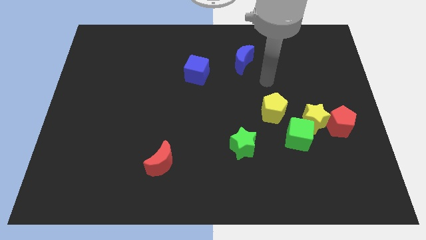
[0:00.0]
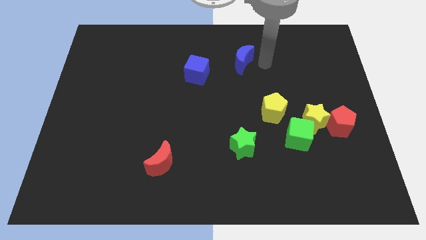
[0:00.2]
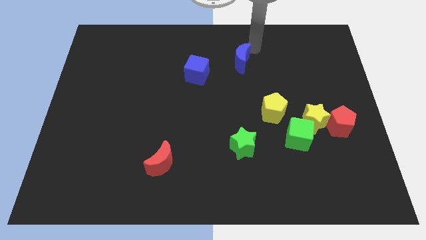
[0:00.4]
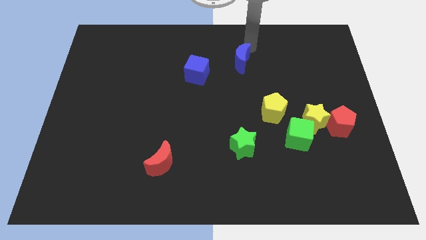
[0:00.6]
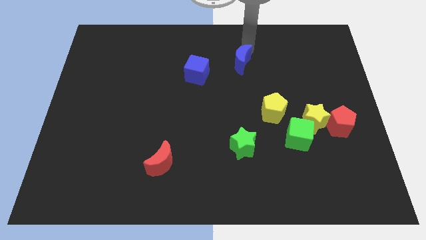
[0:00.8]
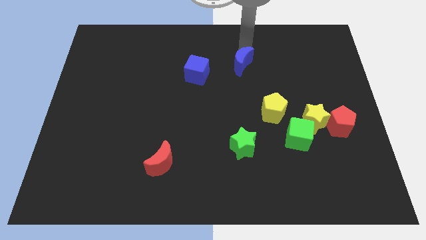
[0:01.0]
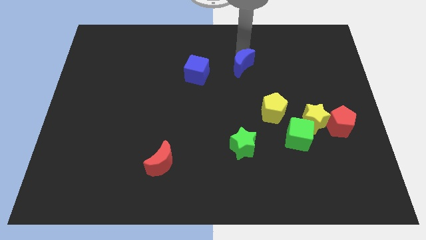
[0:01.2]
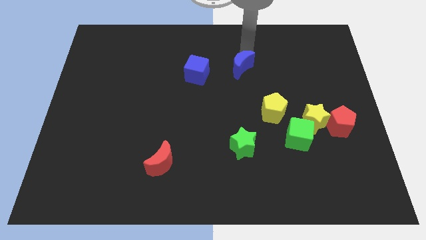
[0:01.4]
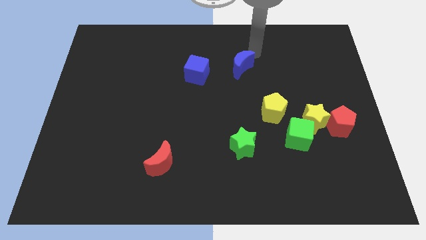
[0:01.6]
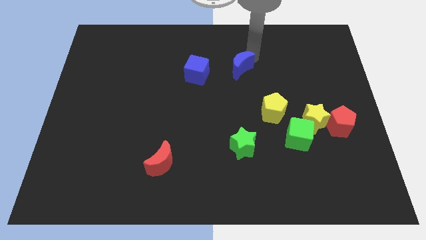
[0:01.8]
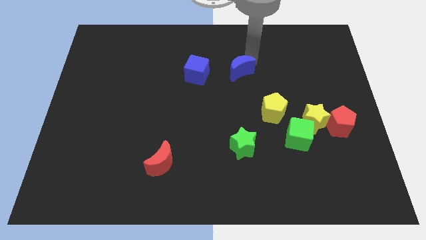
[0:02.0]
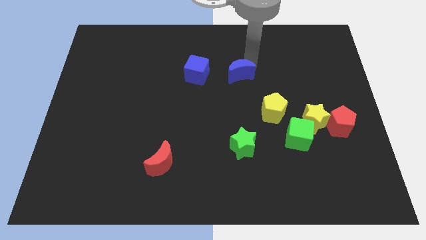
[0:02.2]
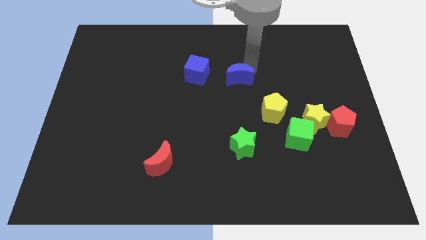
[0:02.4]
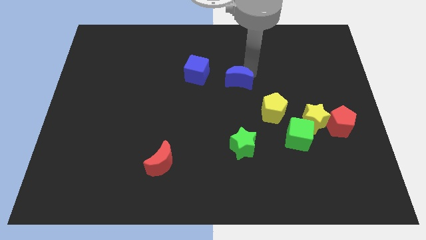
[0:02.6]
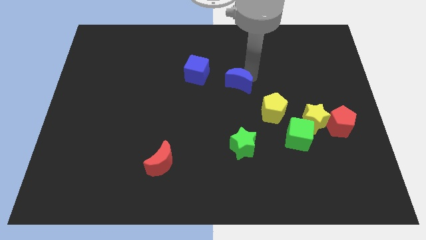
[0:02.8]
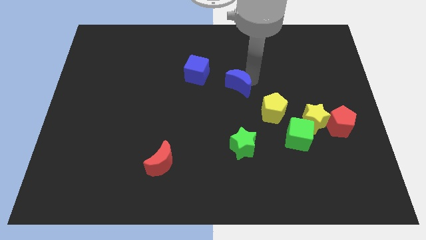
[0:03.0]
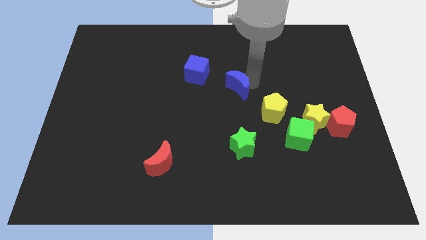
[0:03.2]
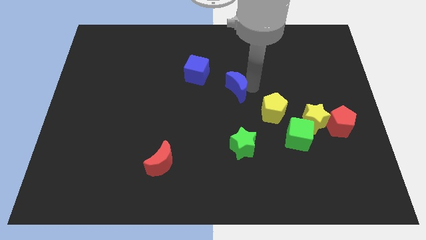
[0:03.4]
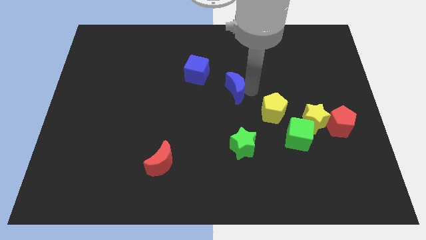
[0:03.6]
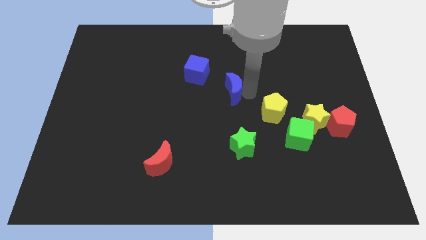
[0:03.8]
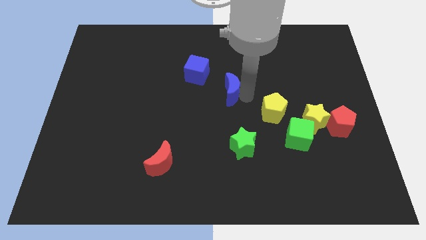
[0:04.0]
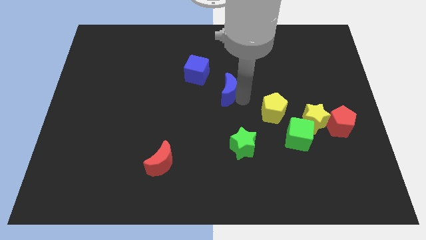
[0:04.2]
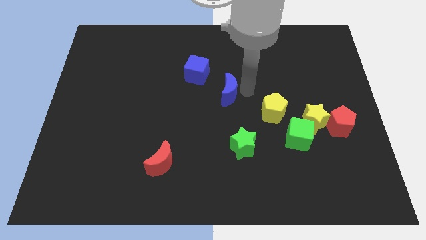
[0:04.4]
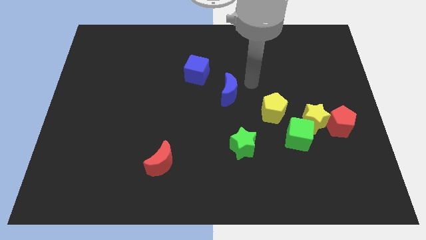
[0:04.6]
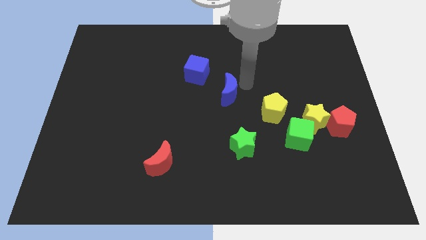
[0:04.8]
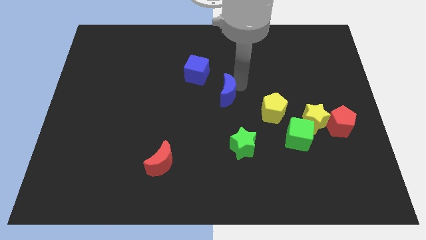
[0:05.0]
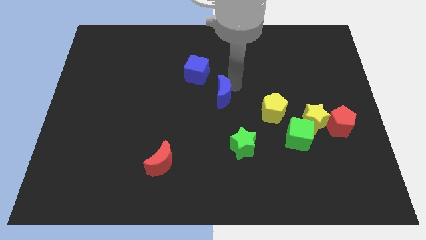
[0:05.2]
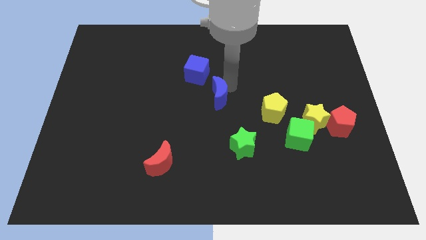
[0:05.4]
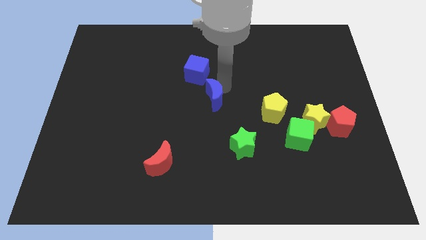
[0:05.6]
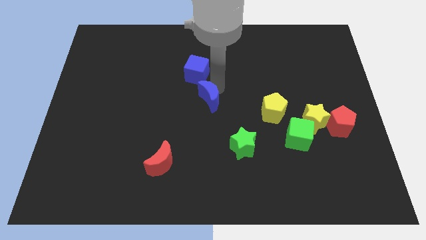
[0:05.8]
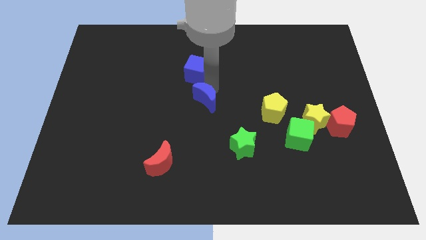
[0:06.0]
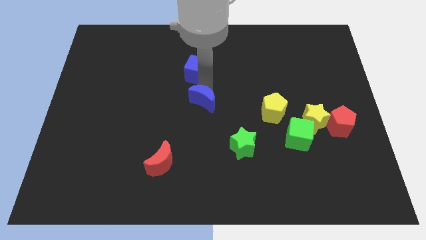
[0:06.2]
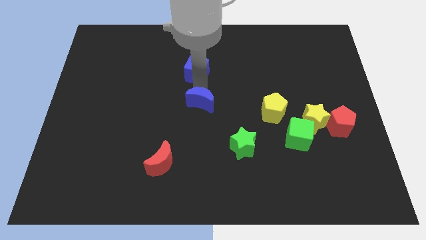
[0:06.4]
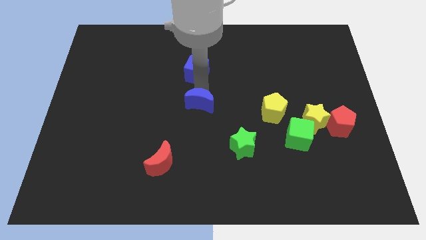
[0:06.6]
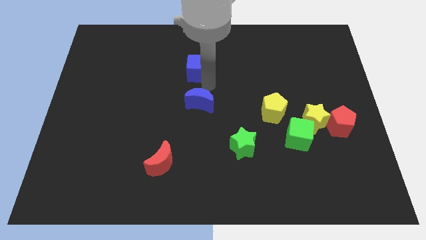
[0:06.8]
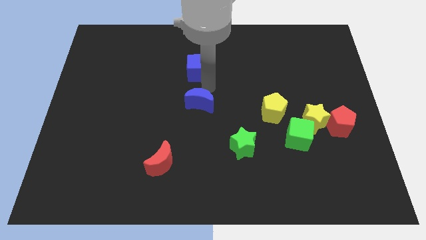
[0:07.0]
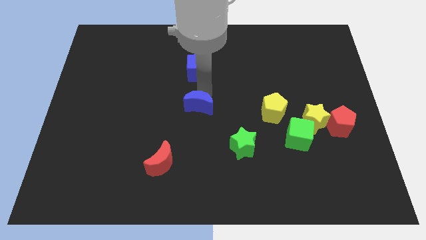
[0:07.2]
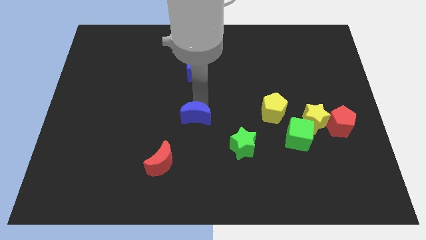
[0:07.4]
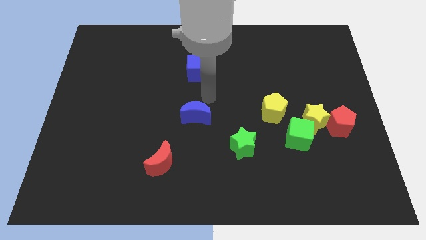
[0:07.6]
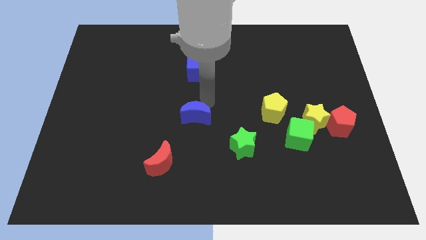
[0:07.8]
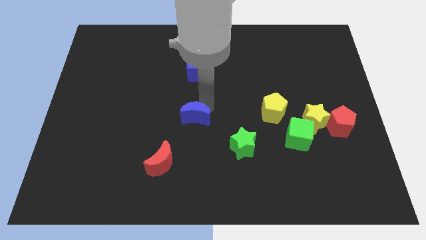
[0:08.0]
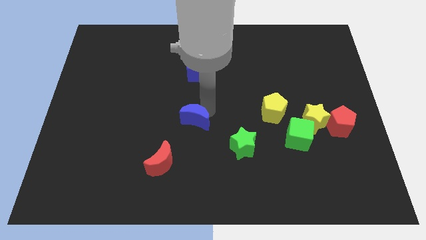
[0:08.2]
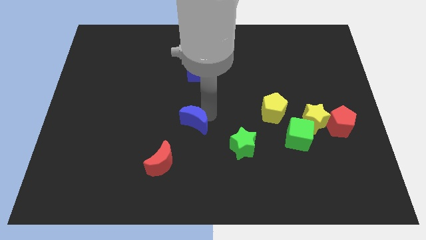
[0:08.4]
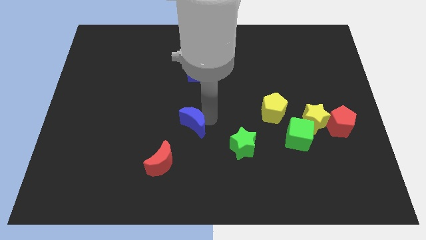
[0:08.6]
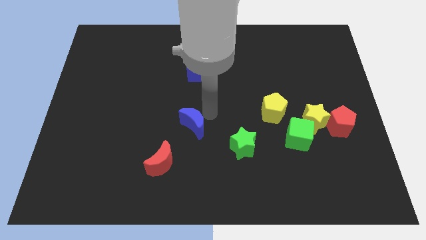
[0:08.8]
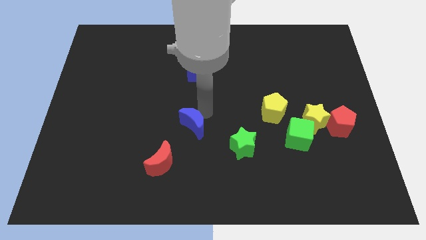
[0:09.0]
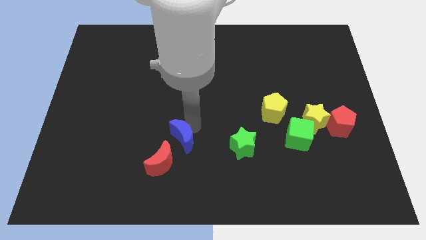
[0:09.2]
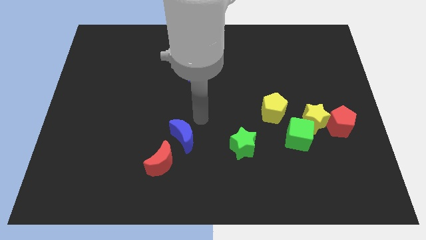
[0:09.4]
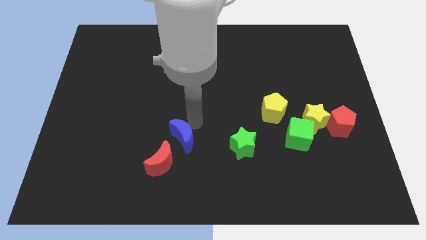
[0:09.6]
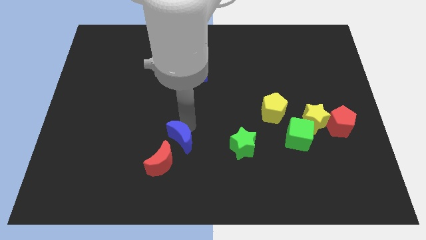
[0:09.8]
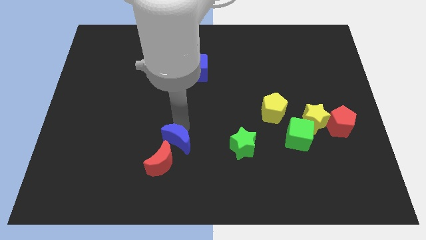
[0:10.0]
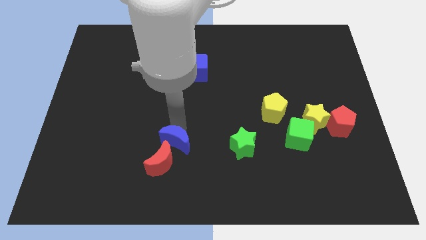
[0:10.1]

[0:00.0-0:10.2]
push the blue moon close to the red moon

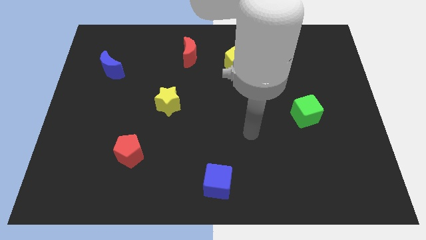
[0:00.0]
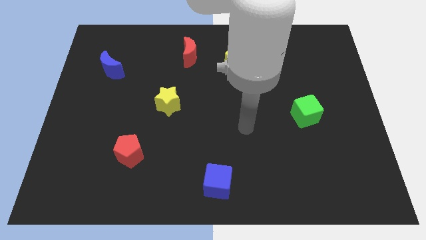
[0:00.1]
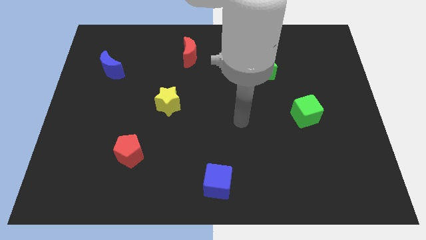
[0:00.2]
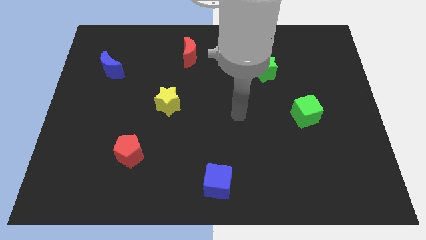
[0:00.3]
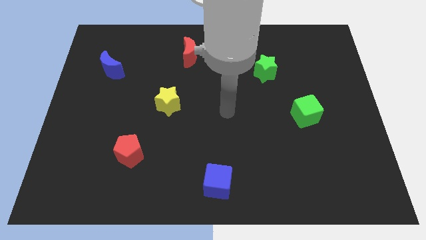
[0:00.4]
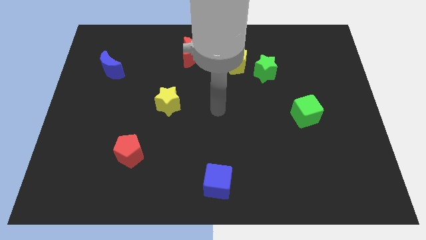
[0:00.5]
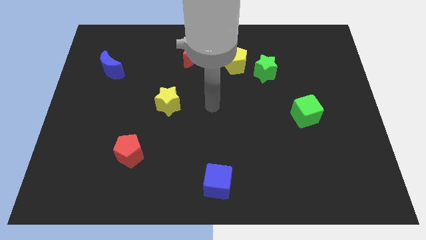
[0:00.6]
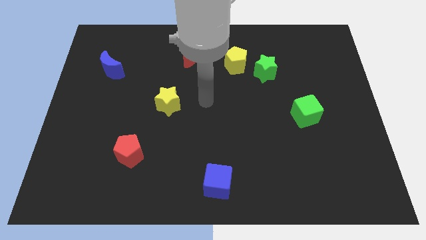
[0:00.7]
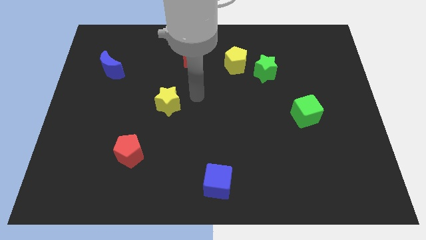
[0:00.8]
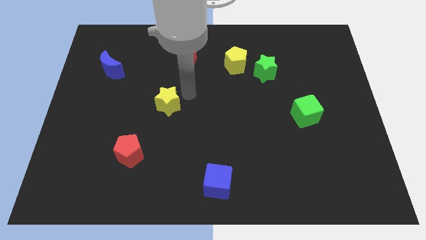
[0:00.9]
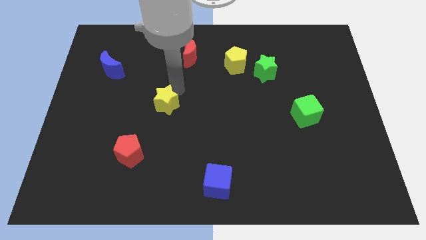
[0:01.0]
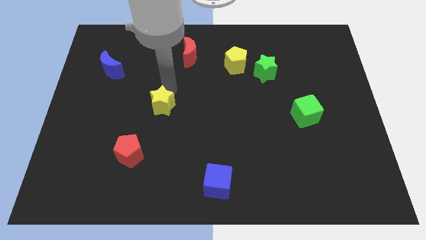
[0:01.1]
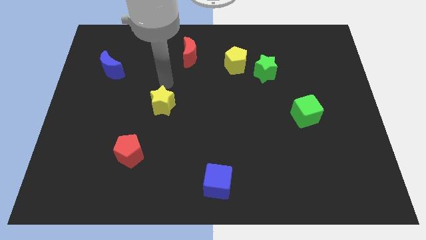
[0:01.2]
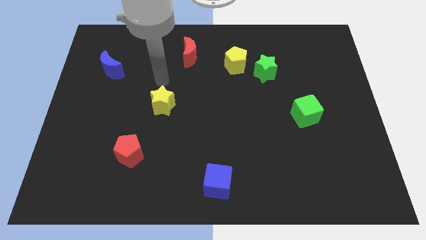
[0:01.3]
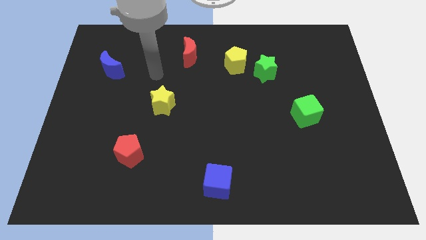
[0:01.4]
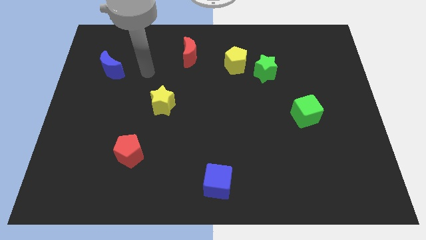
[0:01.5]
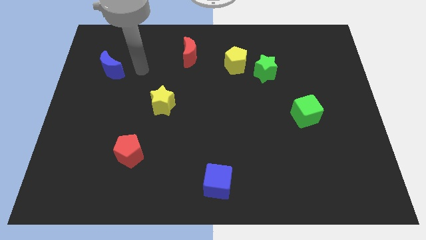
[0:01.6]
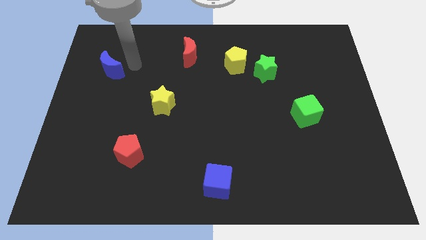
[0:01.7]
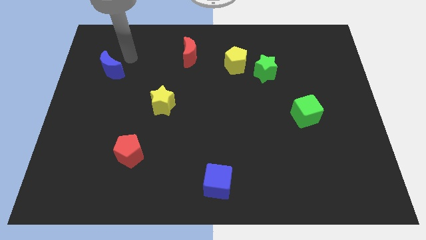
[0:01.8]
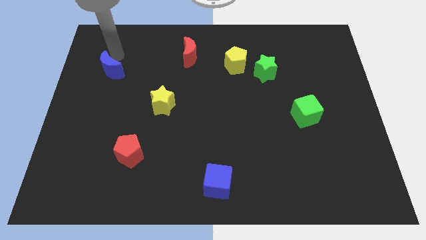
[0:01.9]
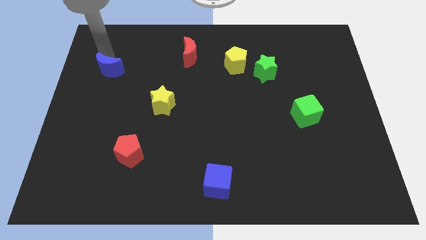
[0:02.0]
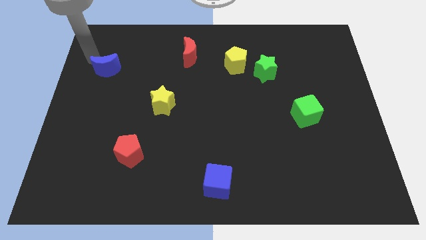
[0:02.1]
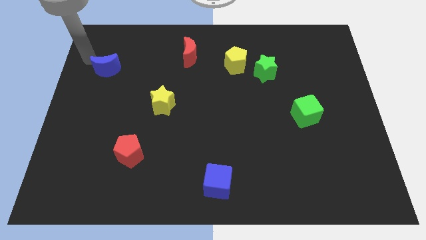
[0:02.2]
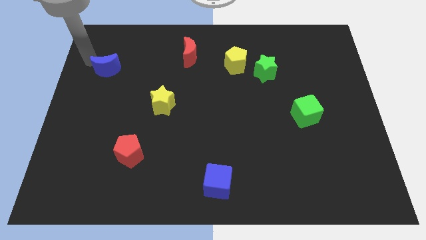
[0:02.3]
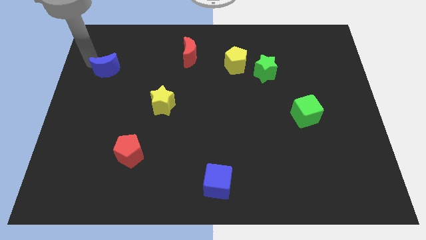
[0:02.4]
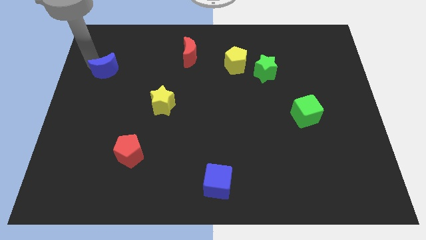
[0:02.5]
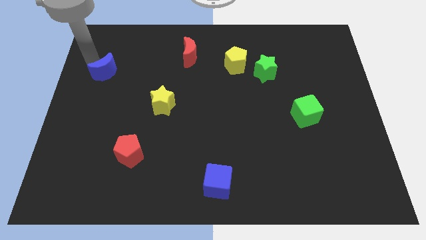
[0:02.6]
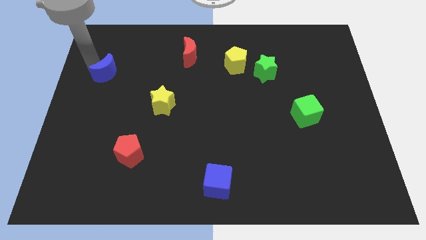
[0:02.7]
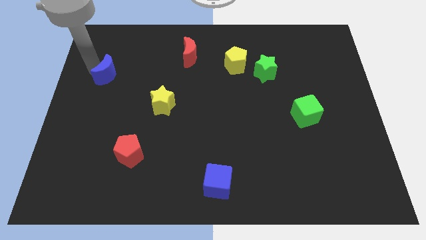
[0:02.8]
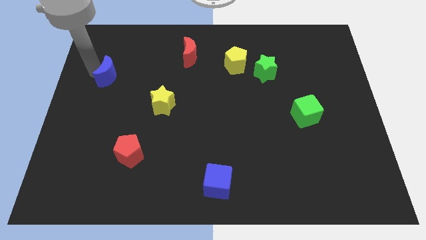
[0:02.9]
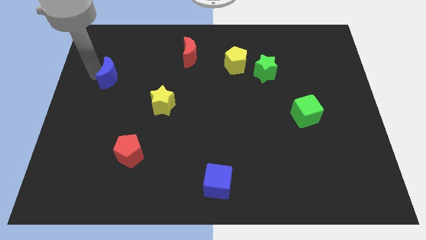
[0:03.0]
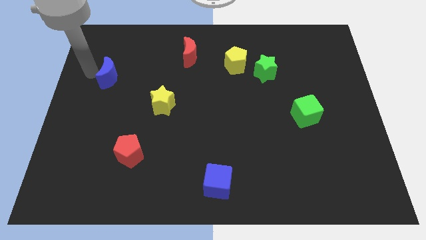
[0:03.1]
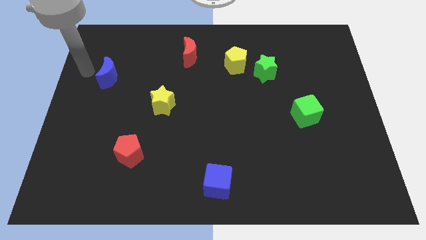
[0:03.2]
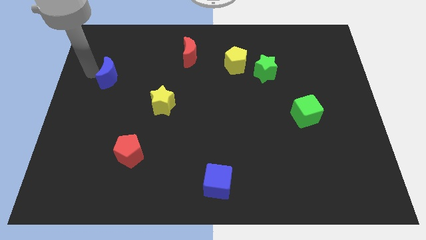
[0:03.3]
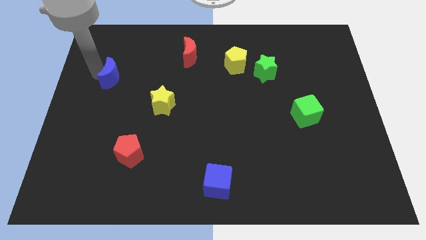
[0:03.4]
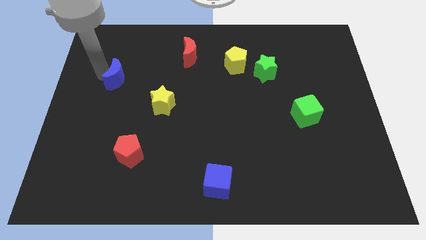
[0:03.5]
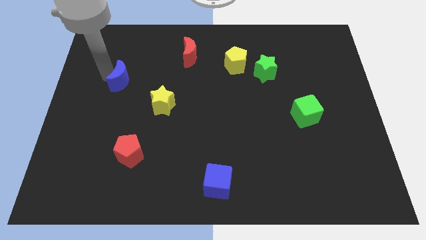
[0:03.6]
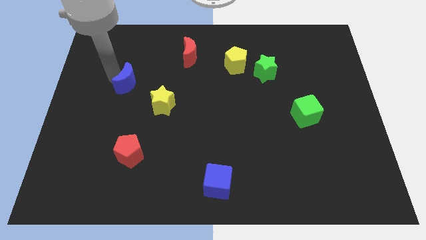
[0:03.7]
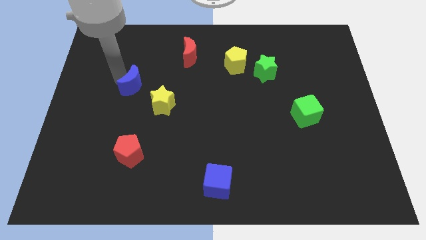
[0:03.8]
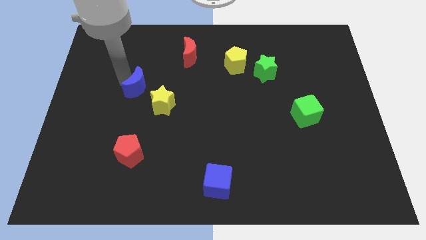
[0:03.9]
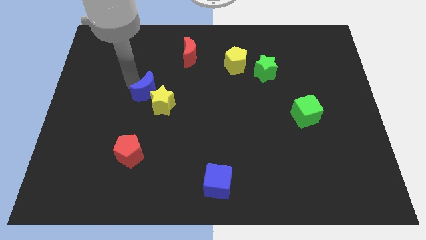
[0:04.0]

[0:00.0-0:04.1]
push the blue moon next to the yellow star
